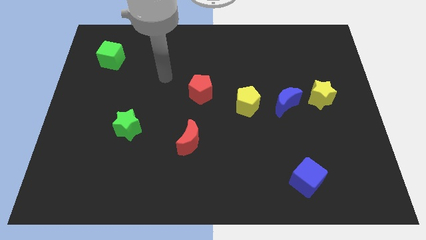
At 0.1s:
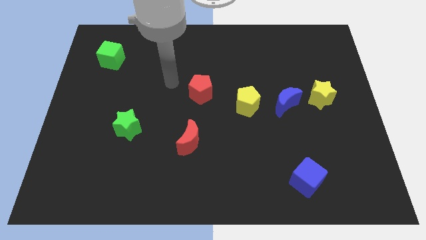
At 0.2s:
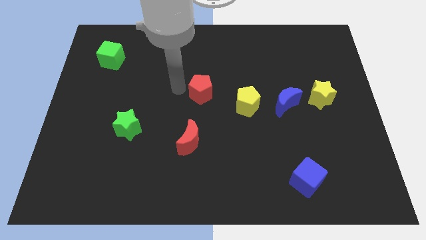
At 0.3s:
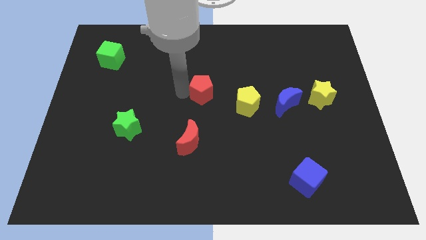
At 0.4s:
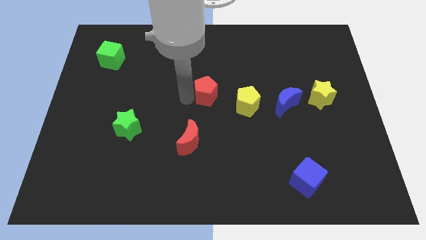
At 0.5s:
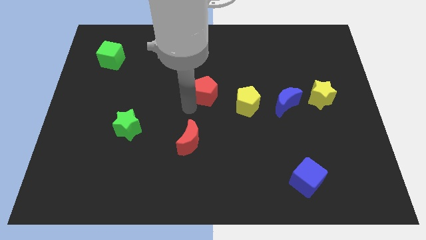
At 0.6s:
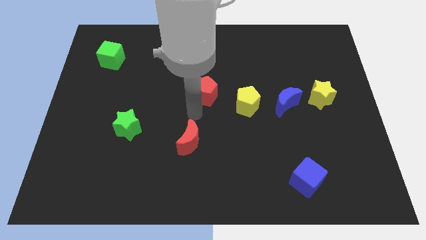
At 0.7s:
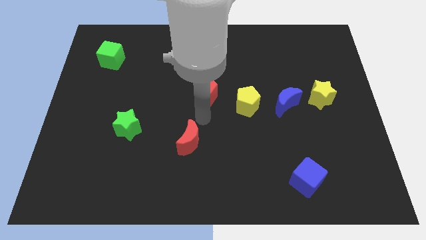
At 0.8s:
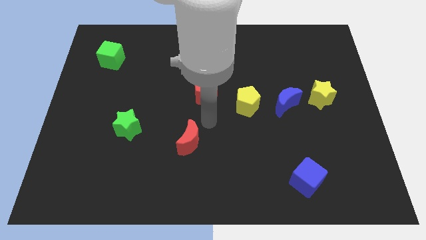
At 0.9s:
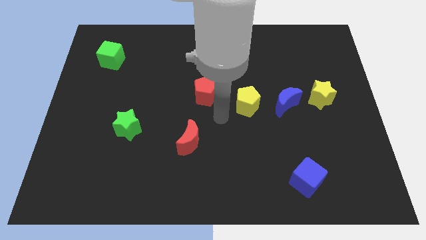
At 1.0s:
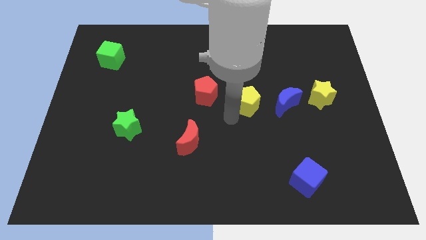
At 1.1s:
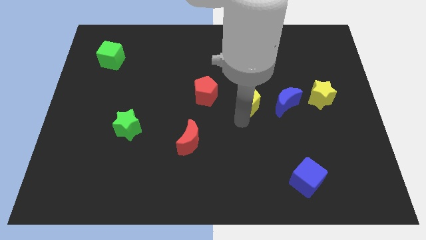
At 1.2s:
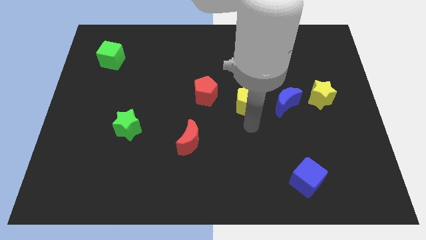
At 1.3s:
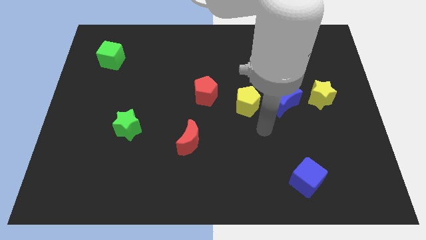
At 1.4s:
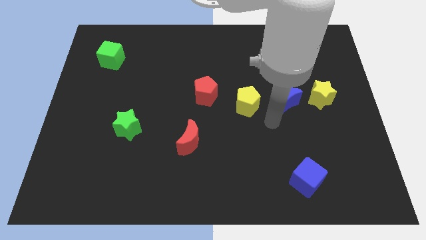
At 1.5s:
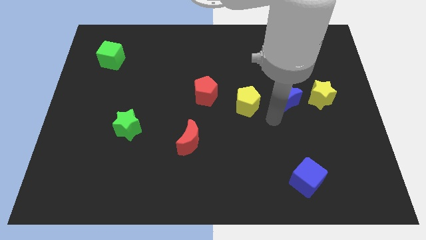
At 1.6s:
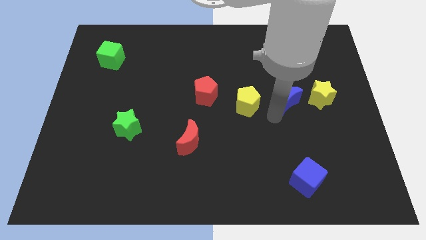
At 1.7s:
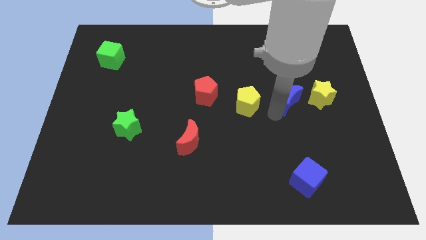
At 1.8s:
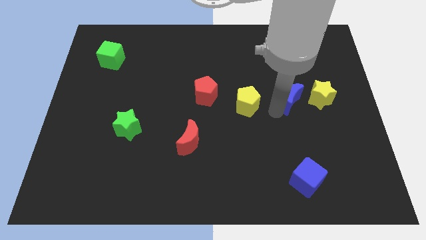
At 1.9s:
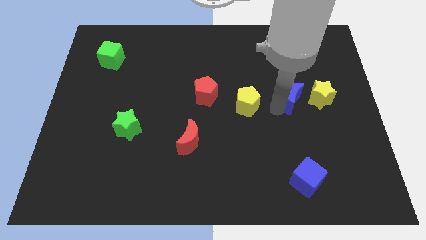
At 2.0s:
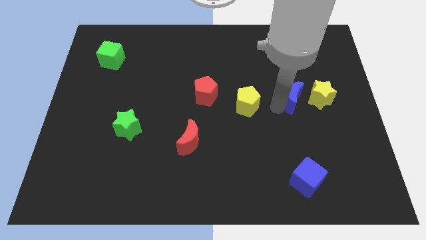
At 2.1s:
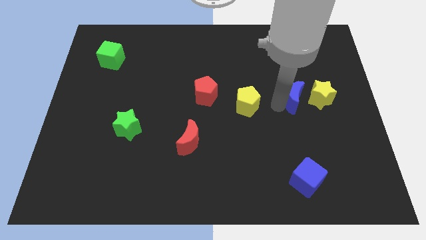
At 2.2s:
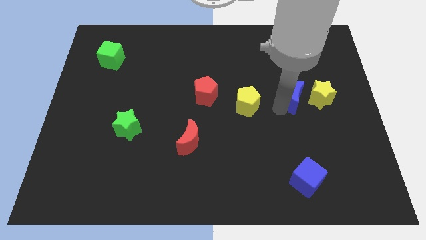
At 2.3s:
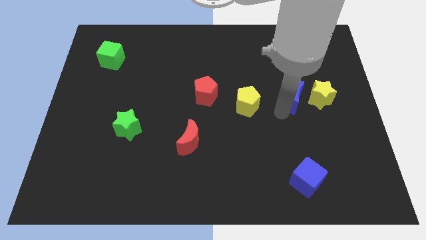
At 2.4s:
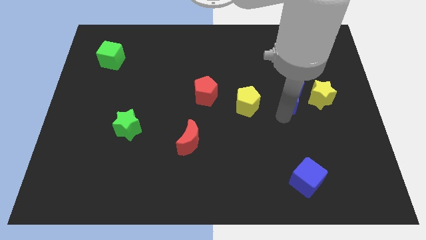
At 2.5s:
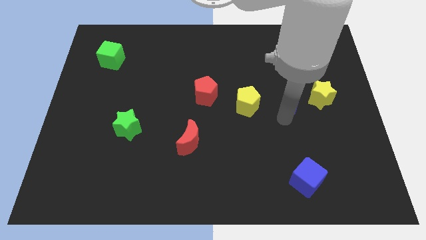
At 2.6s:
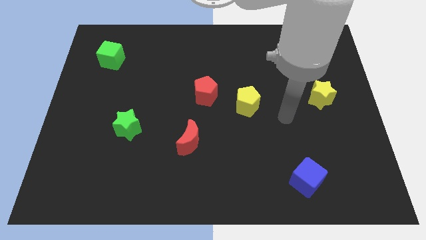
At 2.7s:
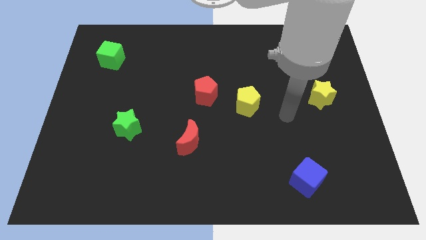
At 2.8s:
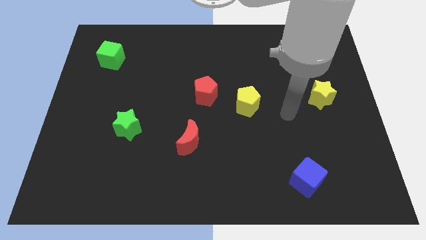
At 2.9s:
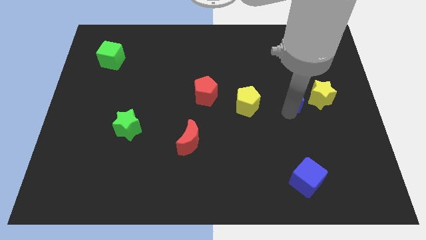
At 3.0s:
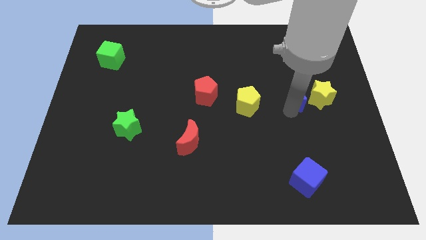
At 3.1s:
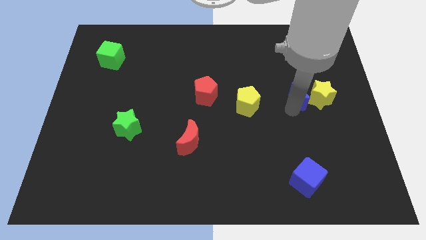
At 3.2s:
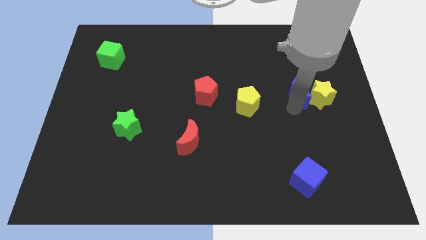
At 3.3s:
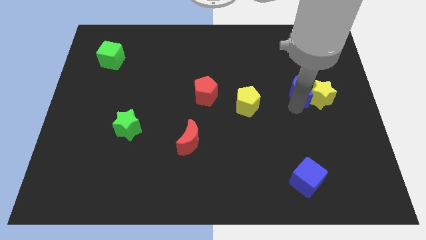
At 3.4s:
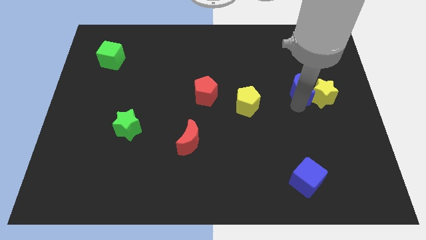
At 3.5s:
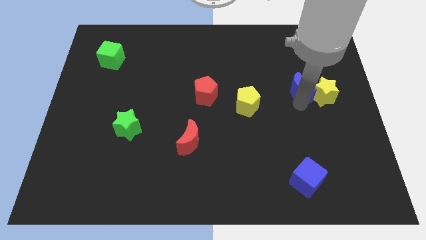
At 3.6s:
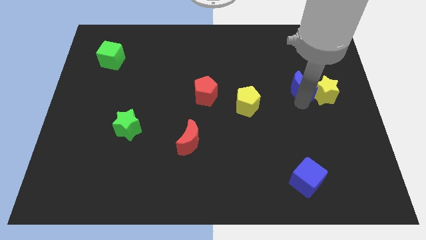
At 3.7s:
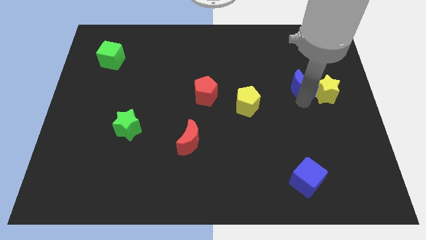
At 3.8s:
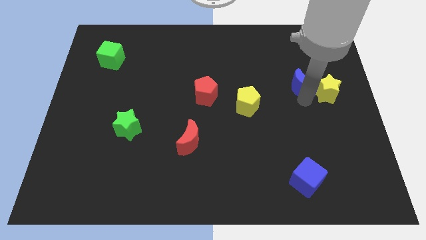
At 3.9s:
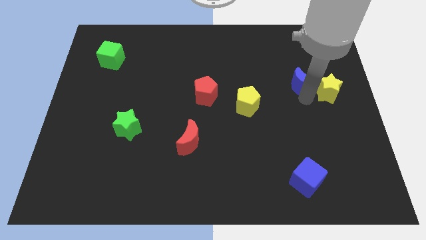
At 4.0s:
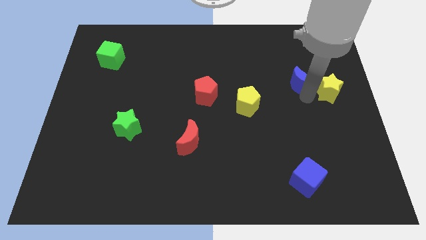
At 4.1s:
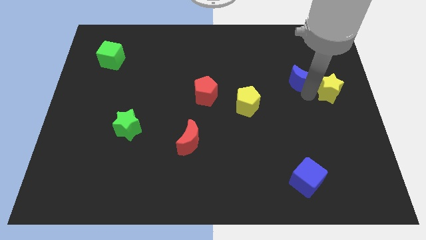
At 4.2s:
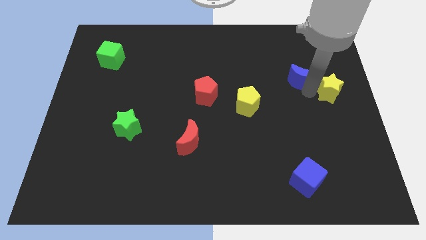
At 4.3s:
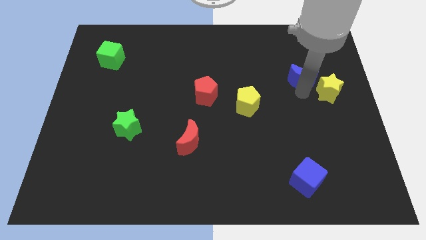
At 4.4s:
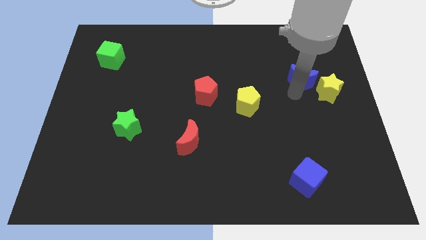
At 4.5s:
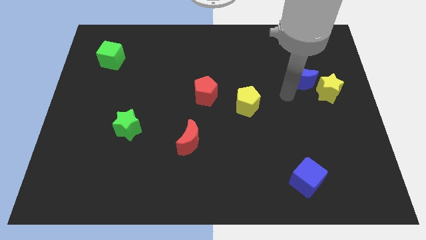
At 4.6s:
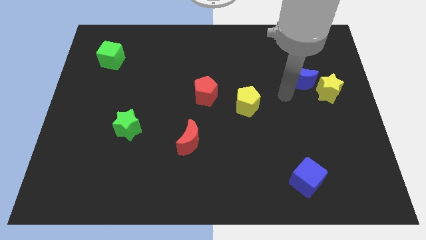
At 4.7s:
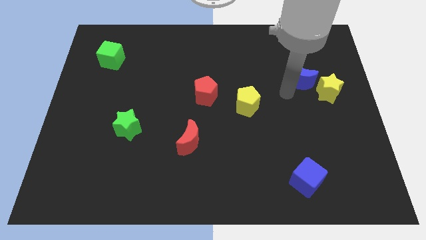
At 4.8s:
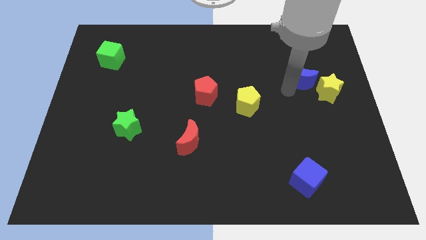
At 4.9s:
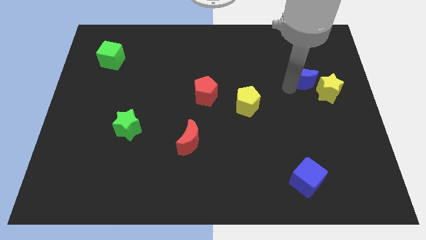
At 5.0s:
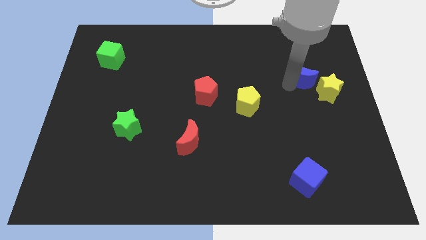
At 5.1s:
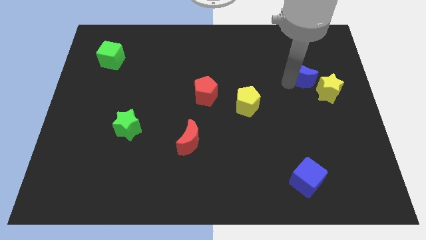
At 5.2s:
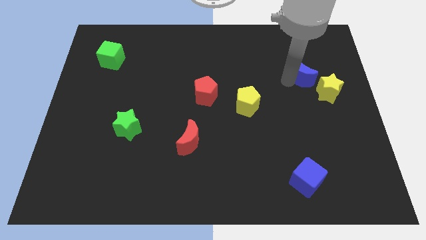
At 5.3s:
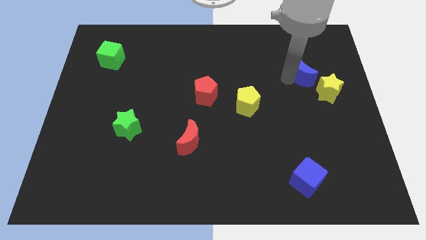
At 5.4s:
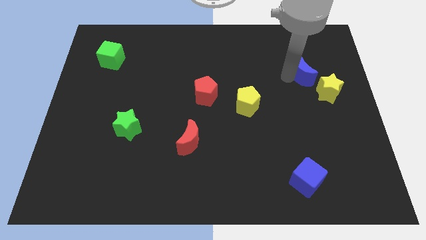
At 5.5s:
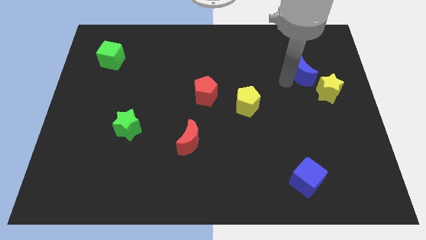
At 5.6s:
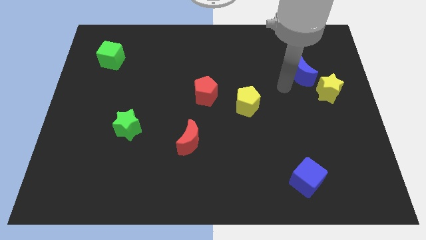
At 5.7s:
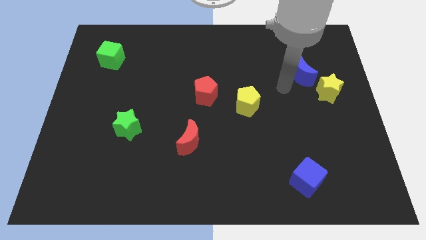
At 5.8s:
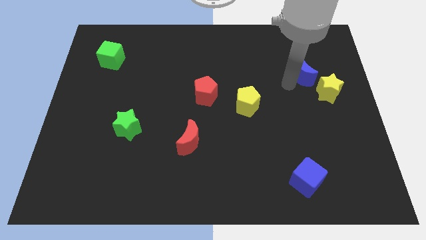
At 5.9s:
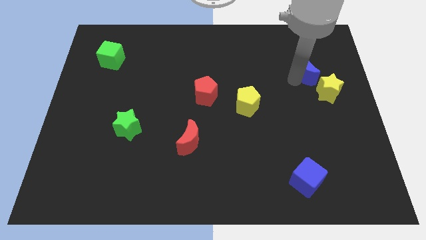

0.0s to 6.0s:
slide the blue moon to the top of the yellow star

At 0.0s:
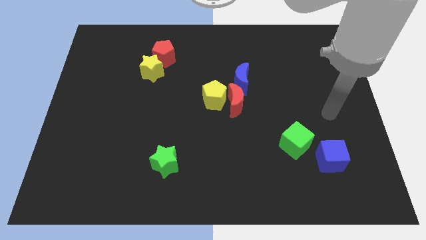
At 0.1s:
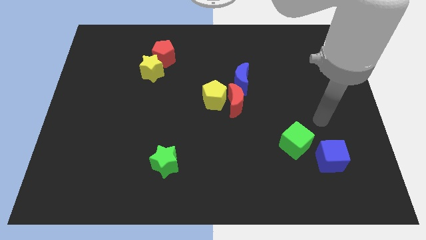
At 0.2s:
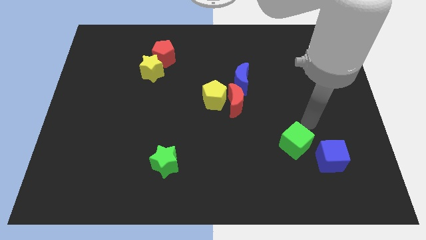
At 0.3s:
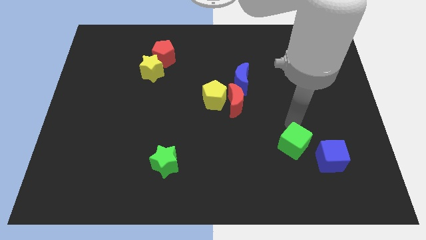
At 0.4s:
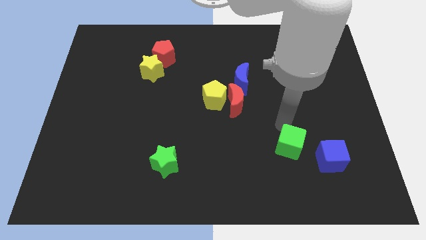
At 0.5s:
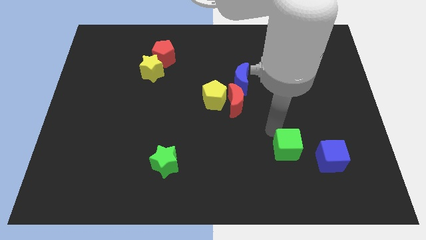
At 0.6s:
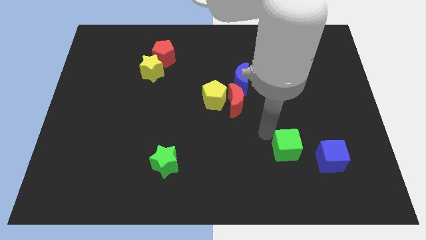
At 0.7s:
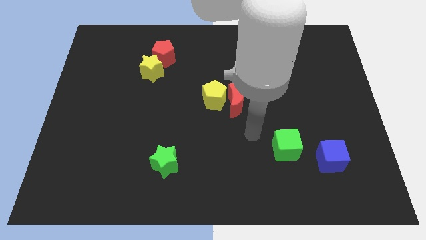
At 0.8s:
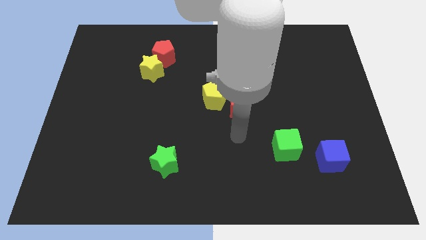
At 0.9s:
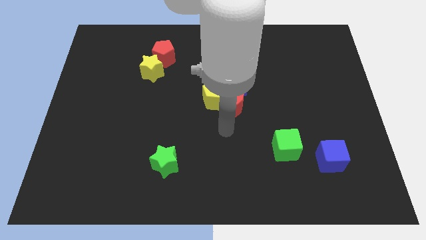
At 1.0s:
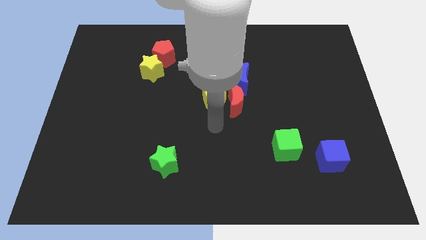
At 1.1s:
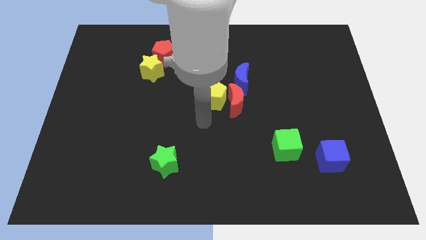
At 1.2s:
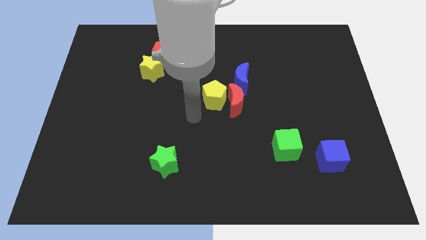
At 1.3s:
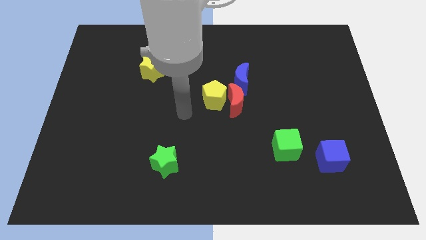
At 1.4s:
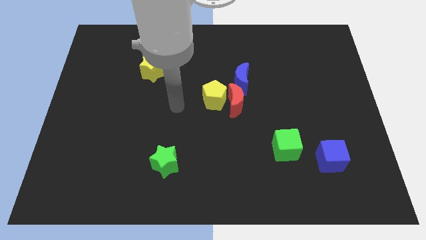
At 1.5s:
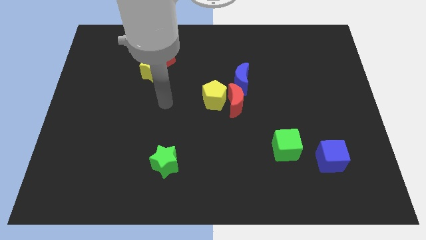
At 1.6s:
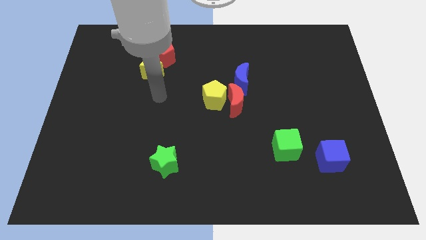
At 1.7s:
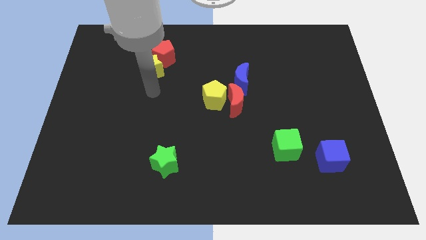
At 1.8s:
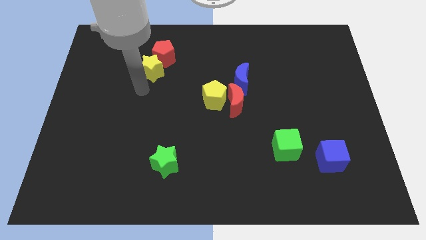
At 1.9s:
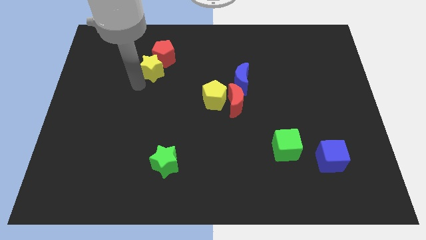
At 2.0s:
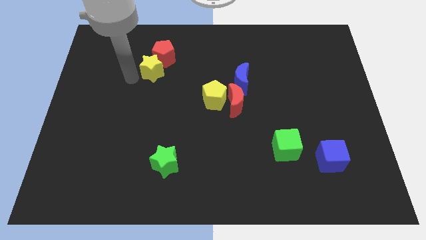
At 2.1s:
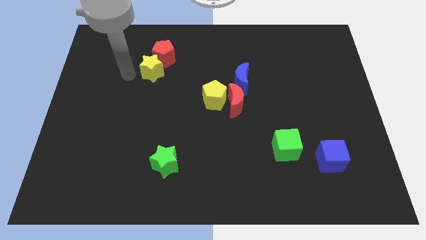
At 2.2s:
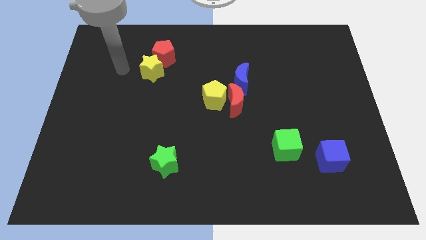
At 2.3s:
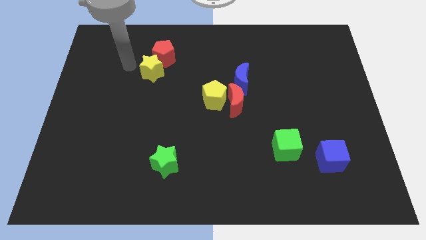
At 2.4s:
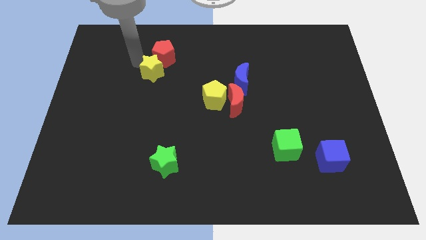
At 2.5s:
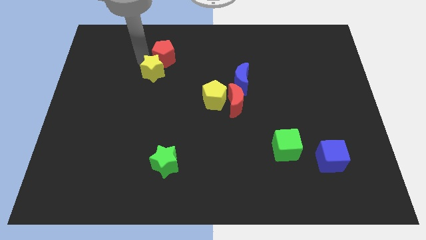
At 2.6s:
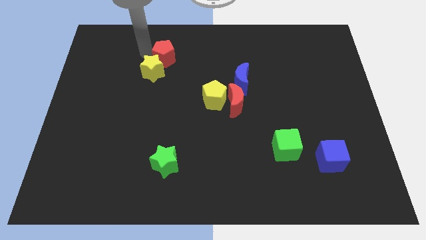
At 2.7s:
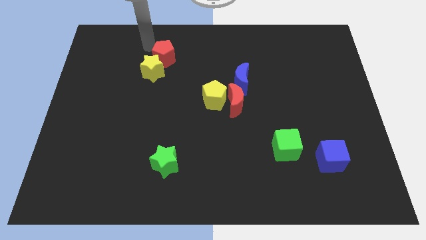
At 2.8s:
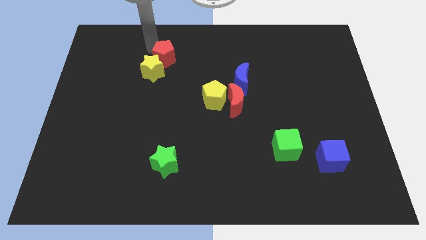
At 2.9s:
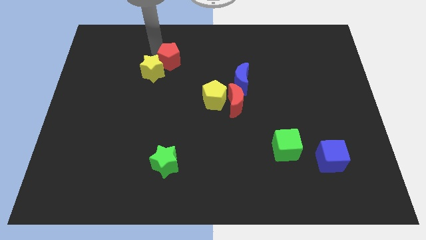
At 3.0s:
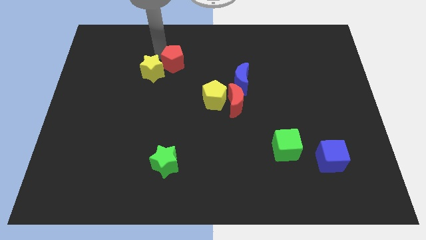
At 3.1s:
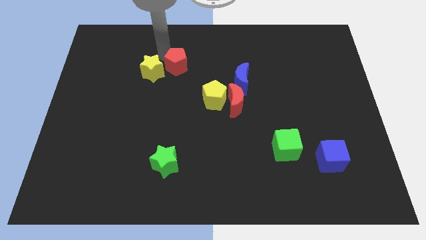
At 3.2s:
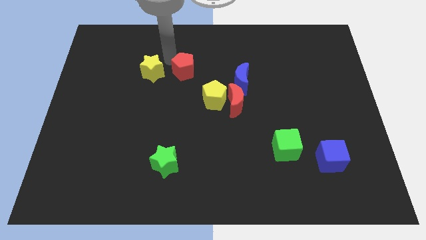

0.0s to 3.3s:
put the red pentagon to the left side of the blue moon
